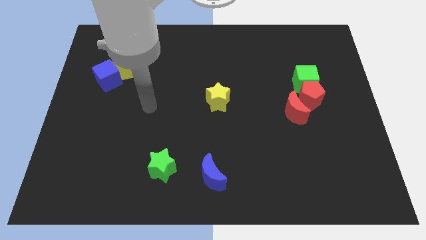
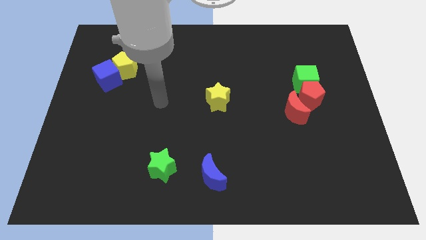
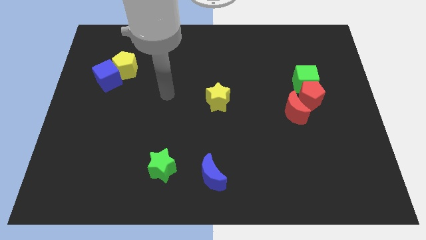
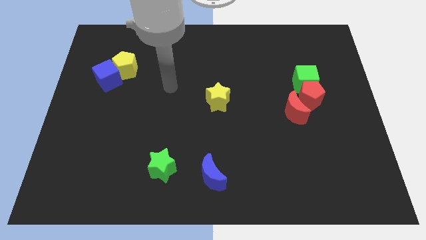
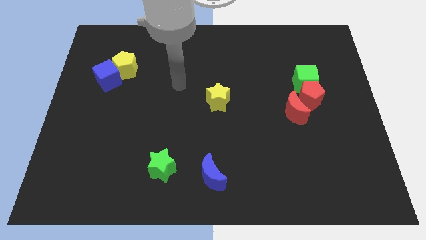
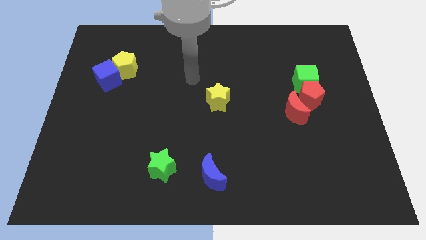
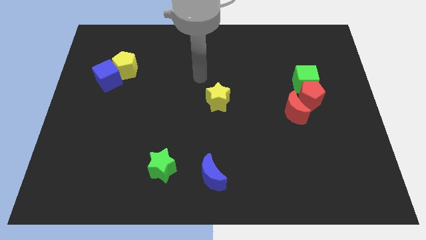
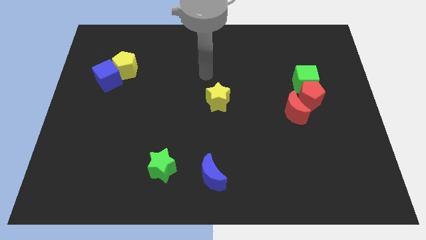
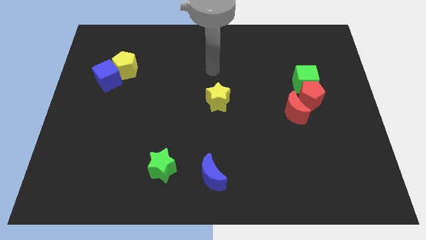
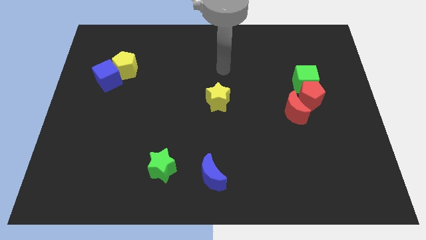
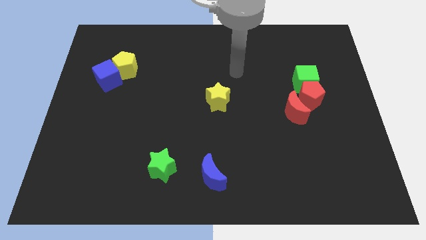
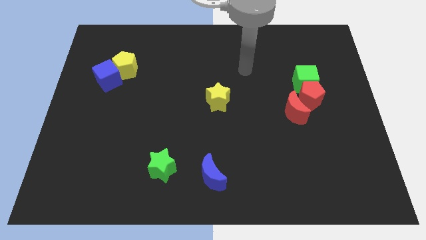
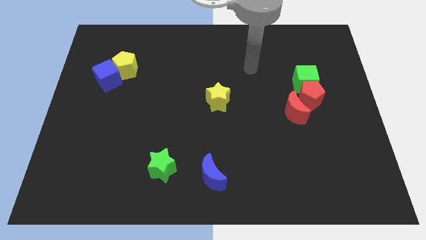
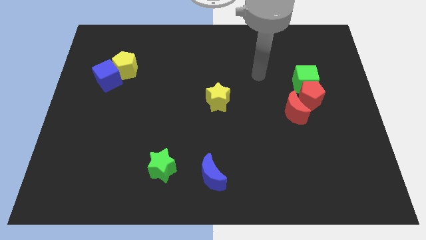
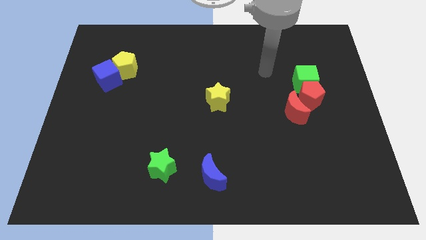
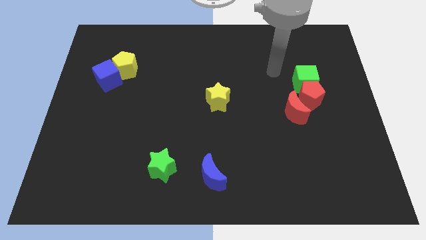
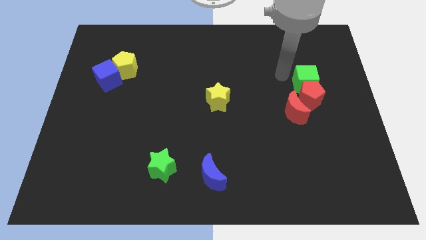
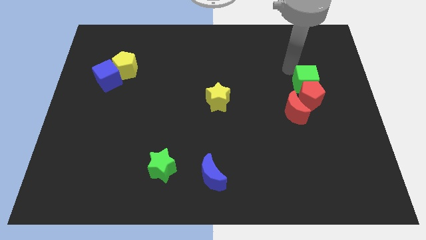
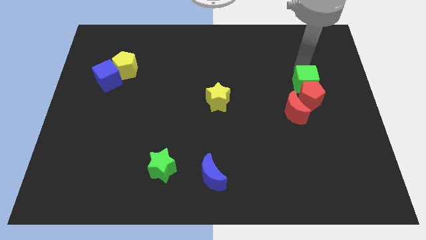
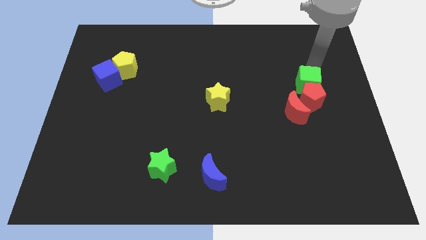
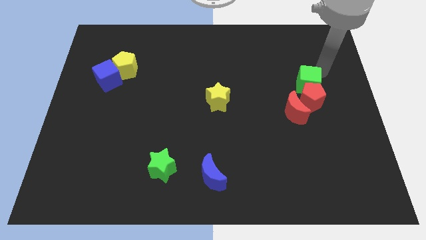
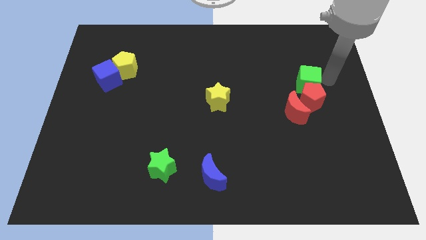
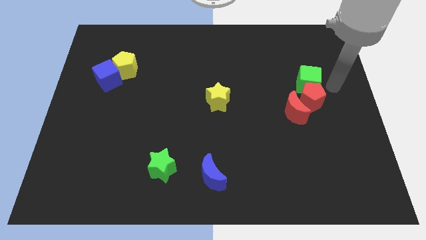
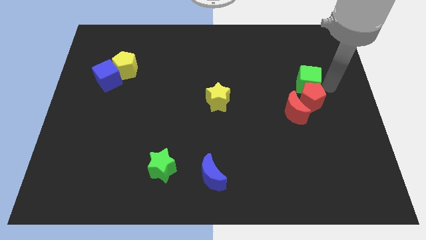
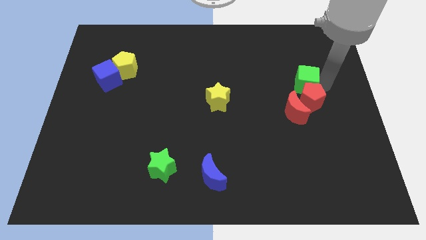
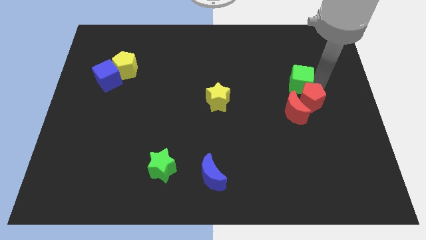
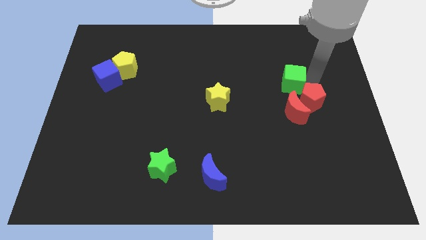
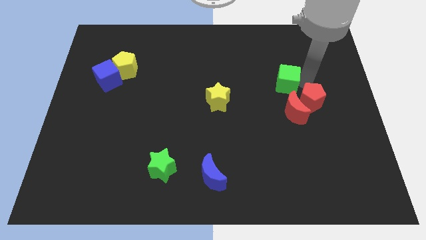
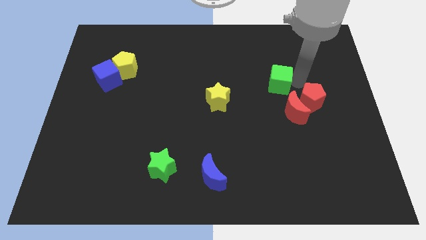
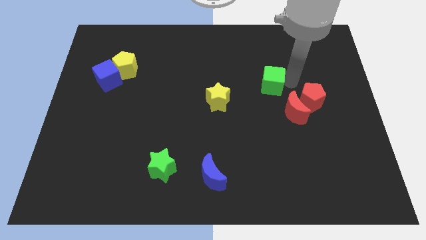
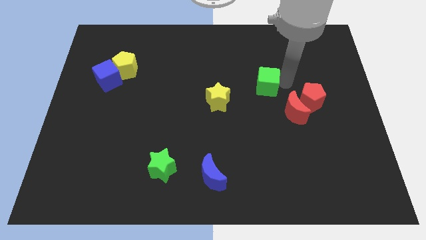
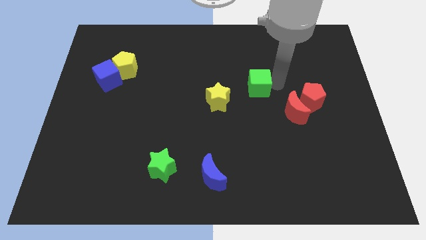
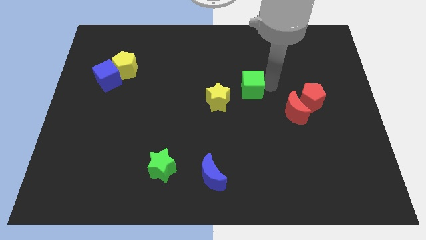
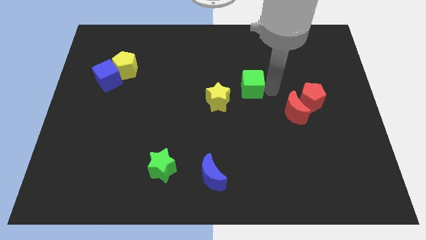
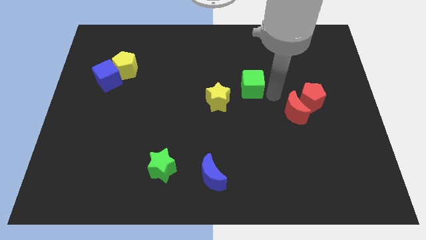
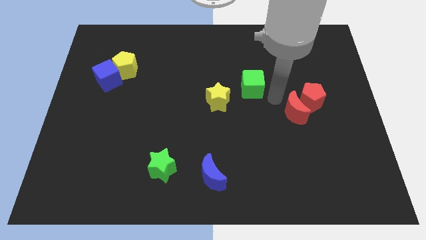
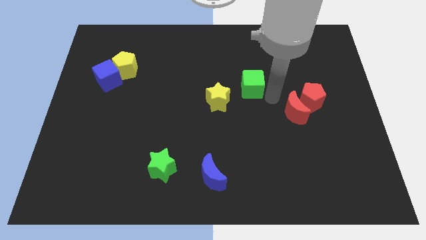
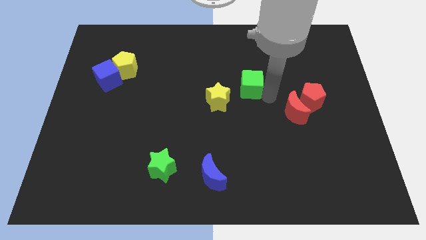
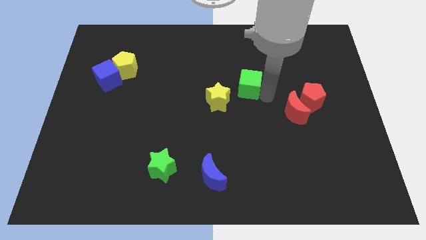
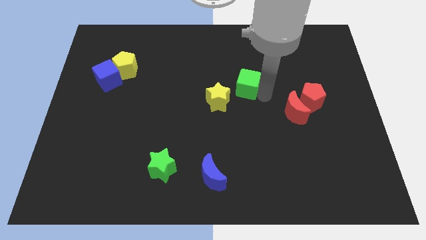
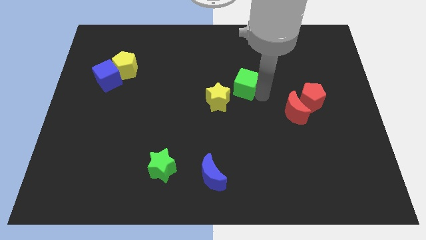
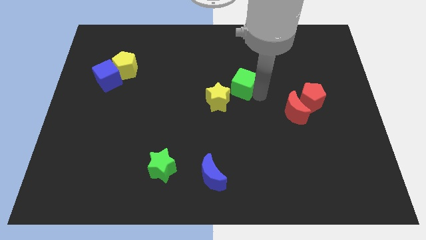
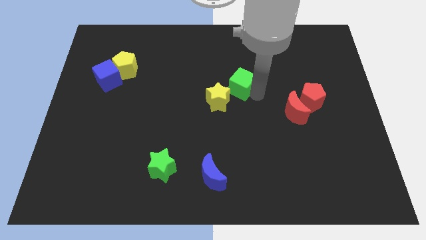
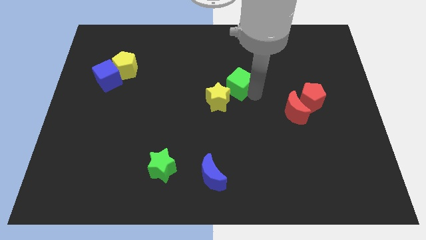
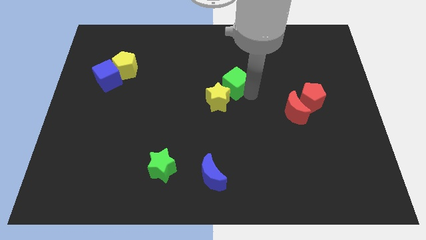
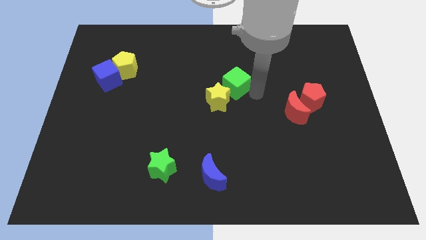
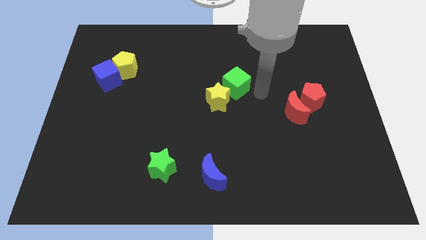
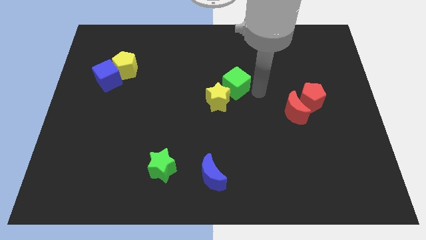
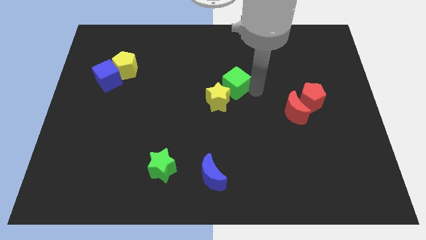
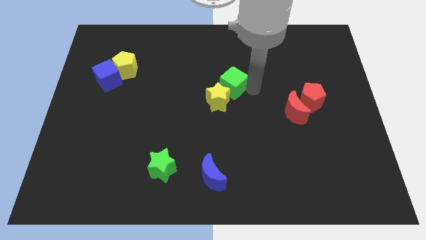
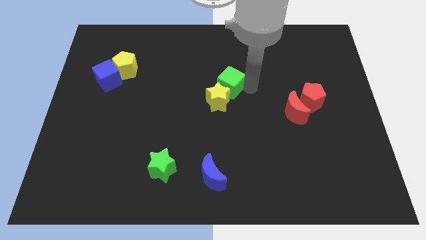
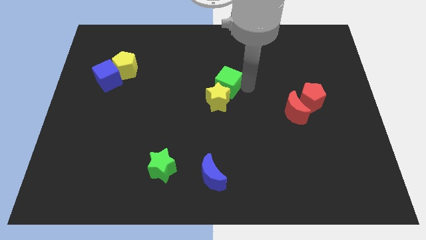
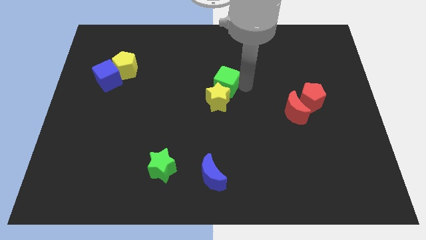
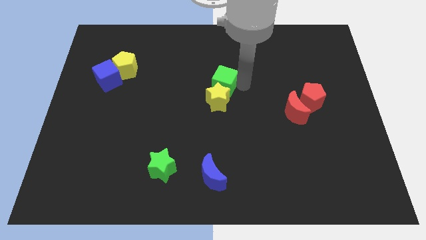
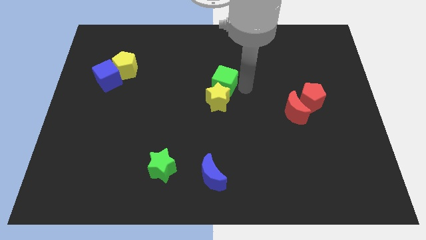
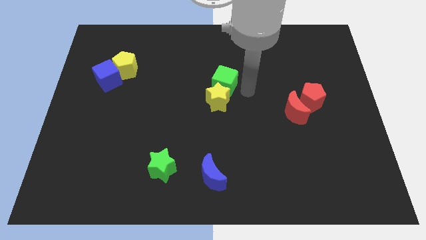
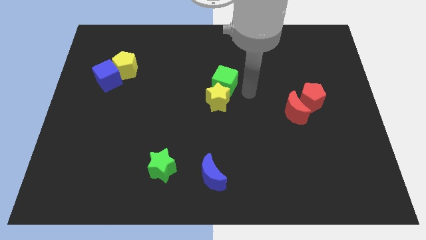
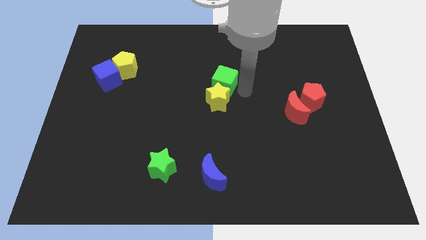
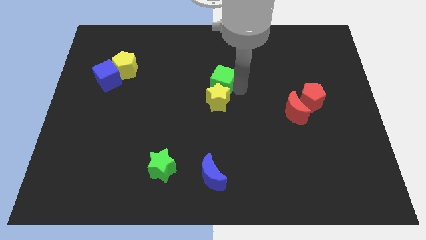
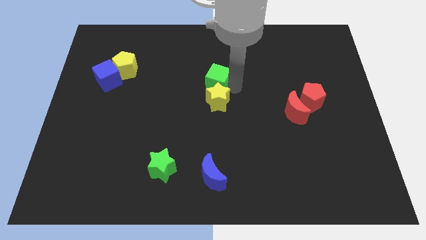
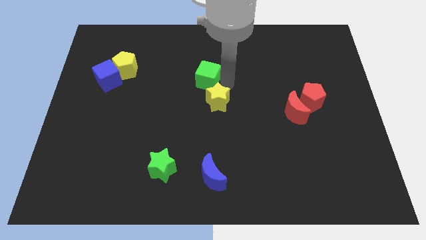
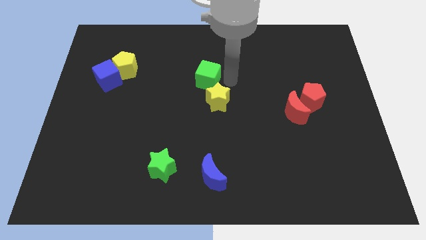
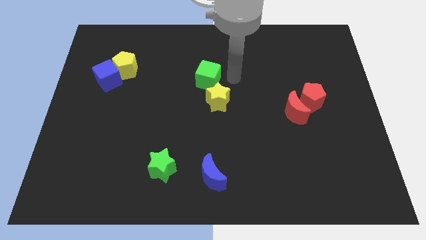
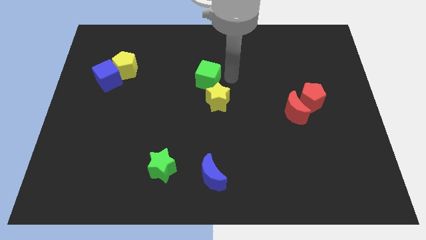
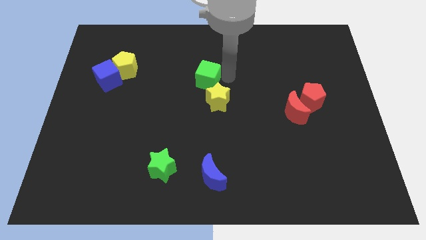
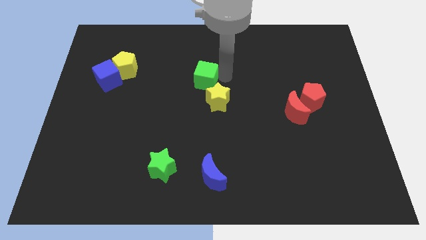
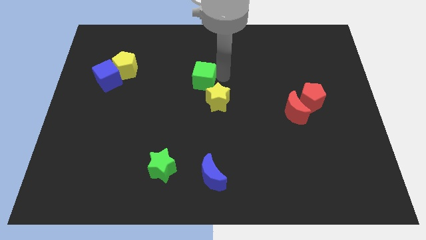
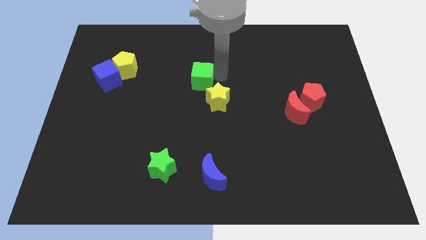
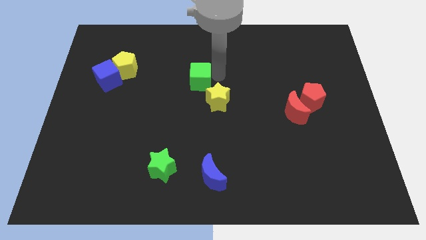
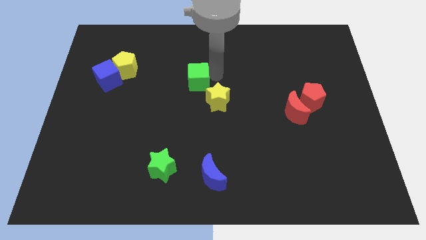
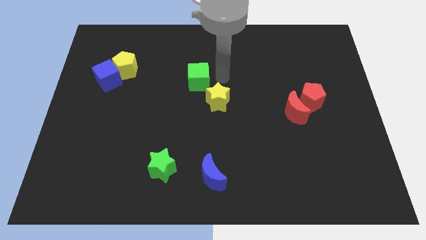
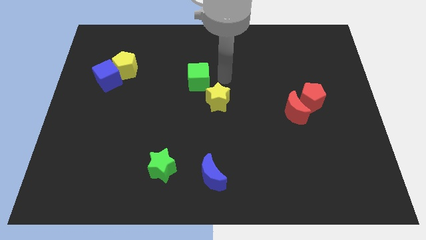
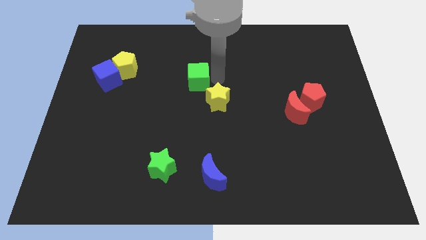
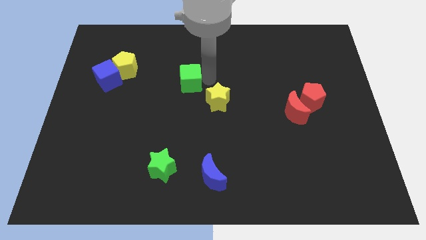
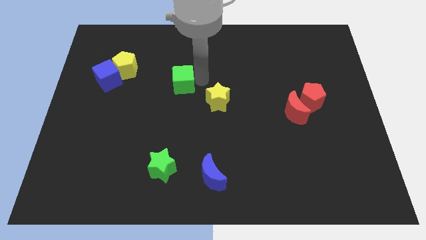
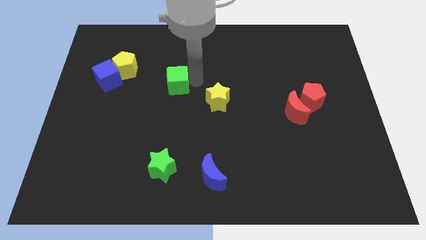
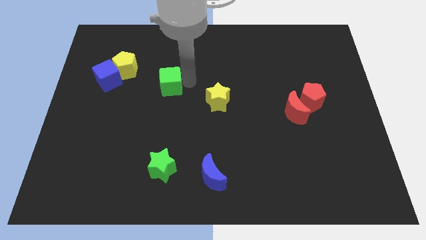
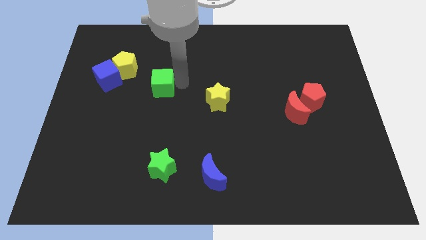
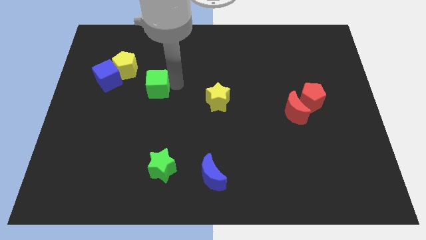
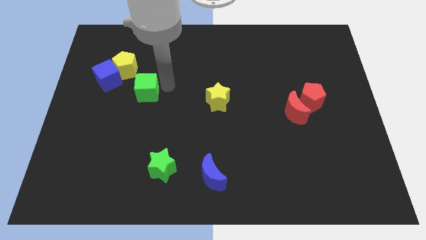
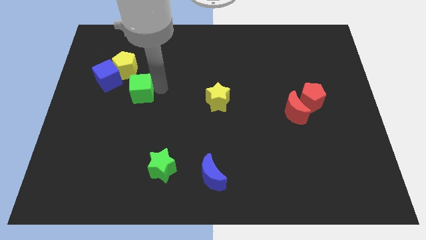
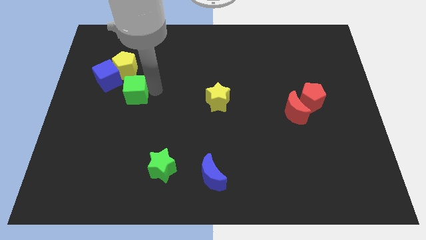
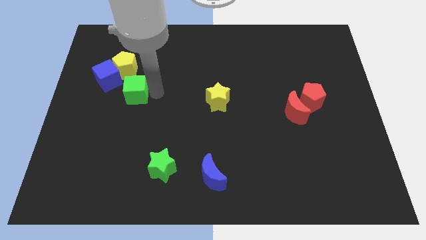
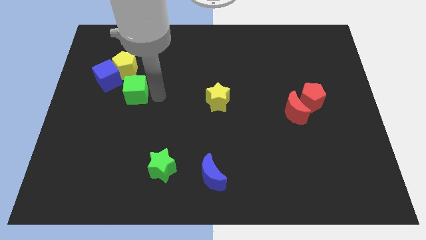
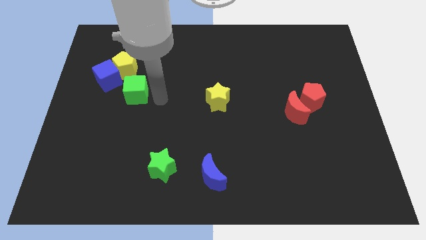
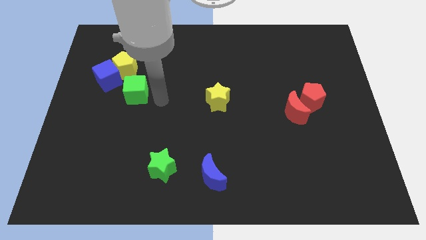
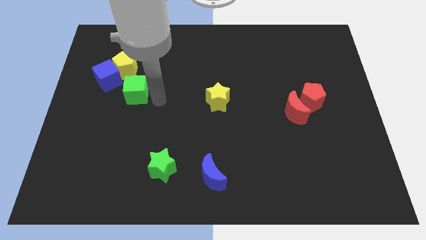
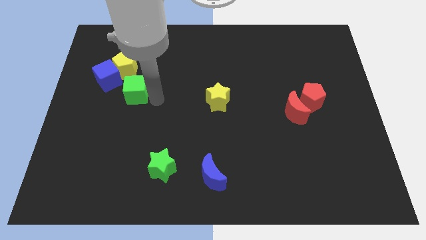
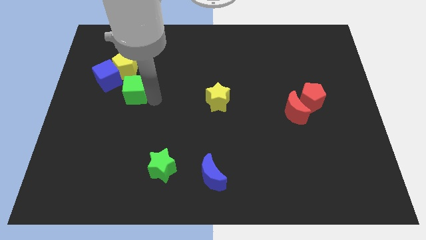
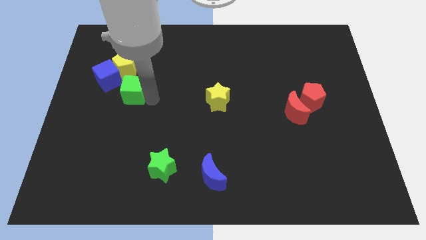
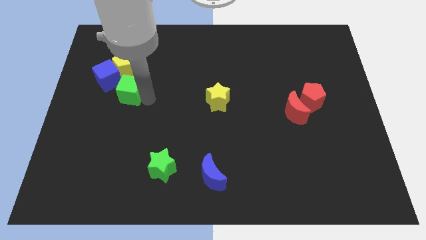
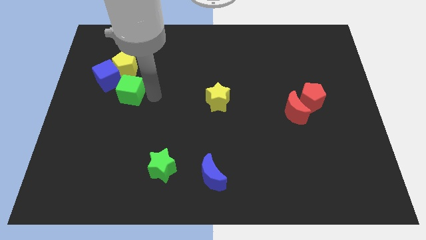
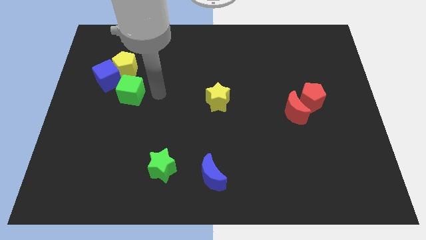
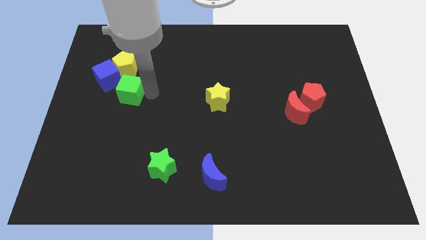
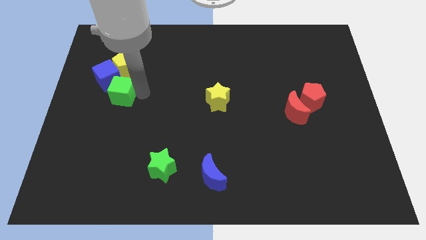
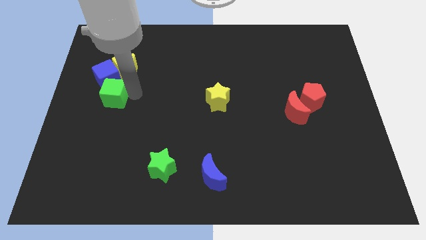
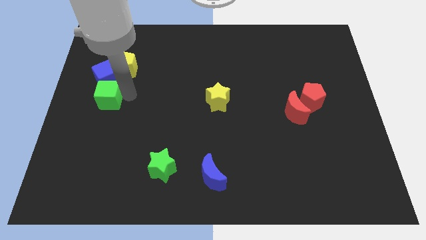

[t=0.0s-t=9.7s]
put the green cube to the left side
